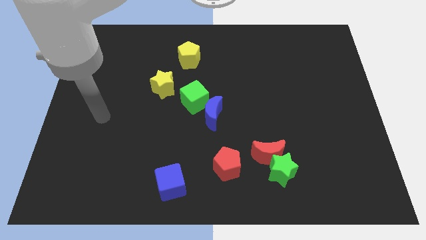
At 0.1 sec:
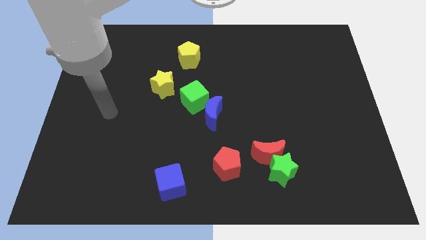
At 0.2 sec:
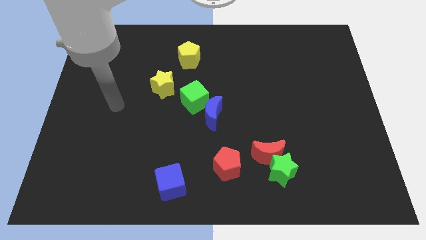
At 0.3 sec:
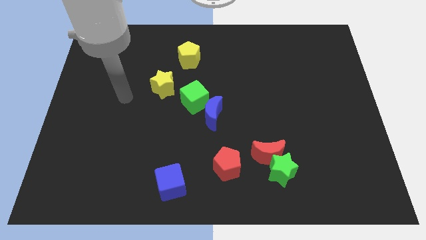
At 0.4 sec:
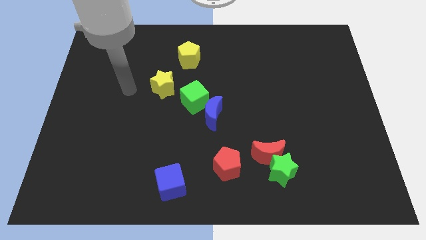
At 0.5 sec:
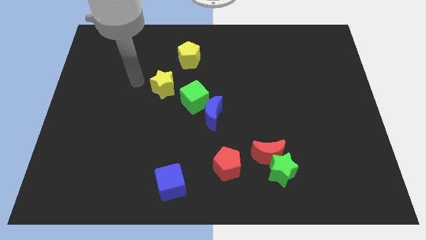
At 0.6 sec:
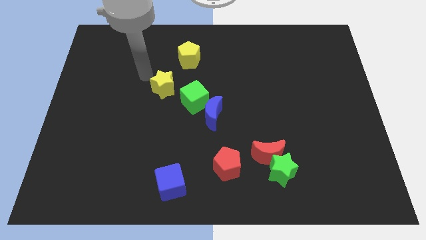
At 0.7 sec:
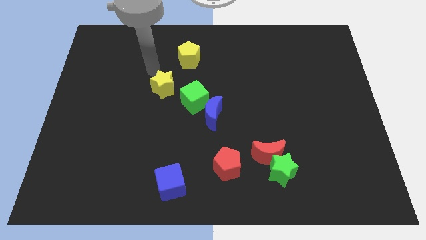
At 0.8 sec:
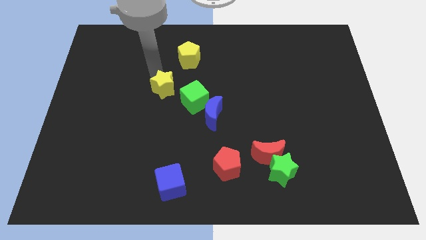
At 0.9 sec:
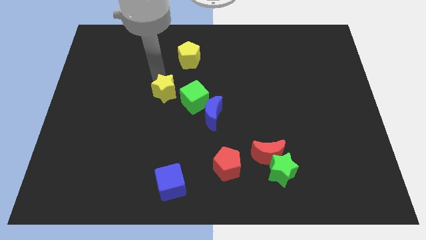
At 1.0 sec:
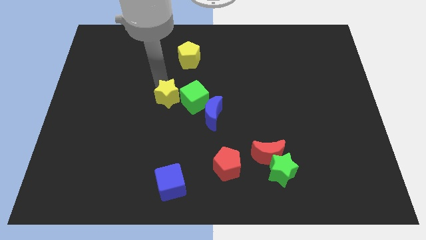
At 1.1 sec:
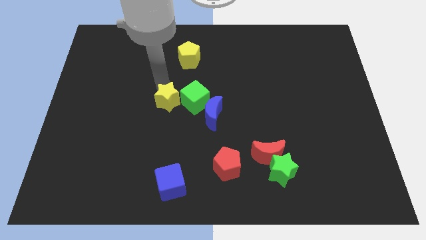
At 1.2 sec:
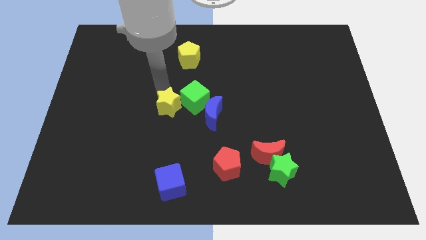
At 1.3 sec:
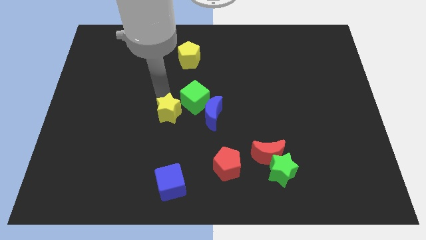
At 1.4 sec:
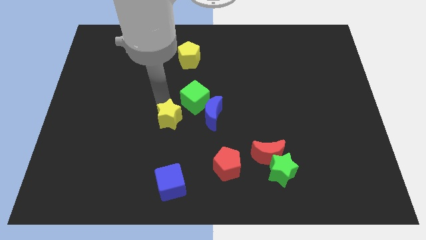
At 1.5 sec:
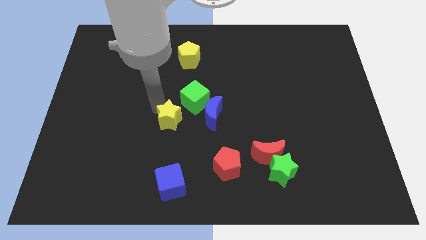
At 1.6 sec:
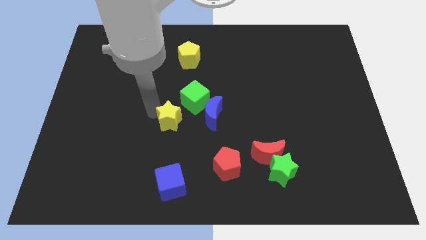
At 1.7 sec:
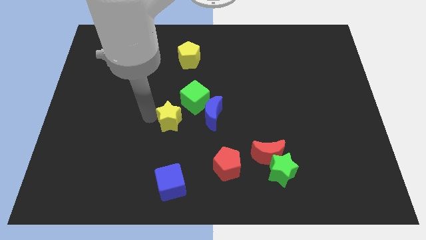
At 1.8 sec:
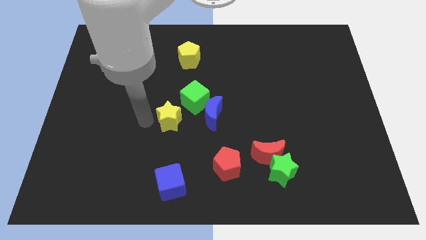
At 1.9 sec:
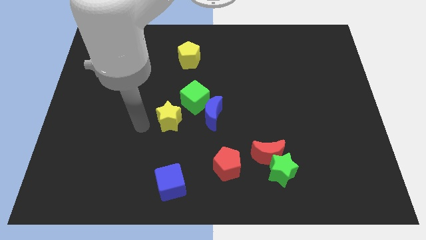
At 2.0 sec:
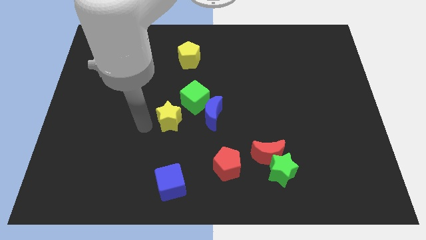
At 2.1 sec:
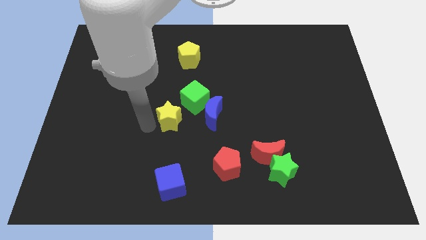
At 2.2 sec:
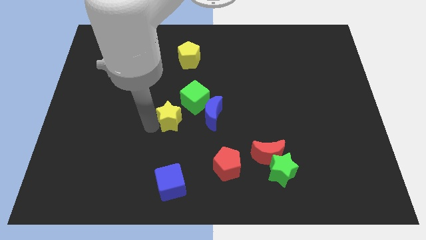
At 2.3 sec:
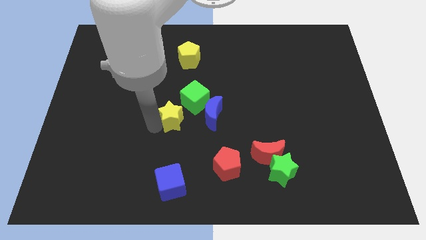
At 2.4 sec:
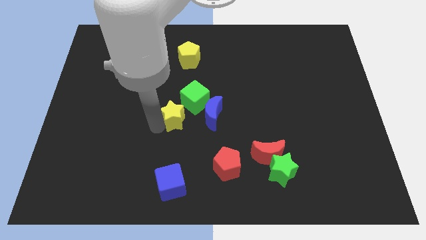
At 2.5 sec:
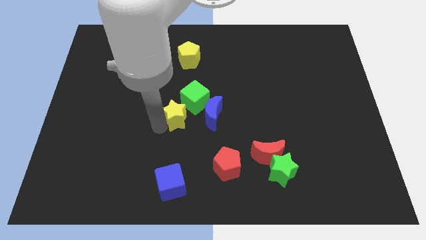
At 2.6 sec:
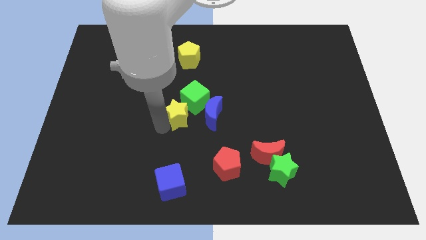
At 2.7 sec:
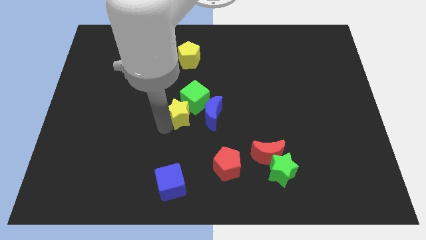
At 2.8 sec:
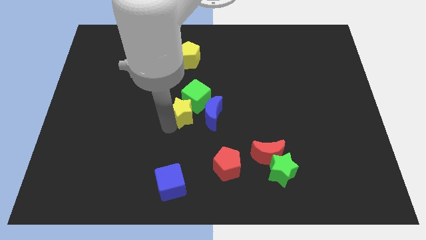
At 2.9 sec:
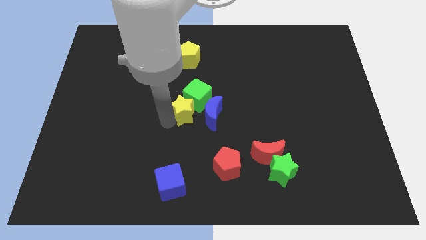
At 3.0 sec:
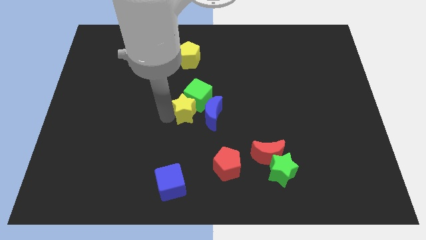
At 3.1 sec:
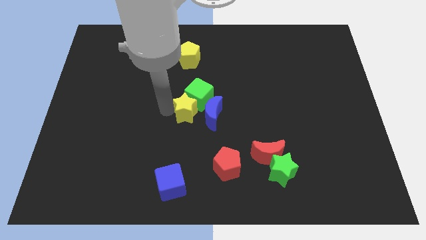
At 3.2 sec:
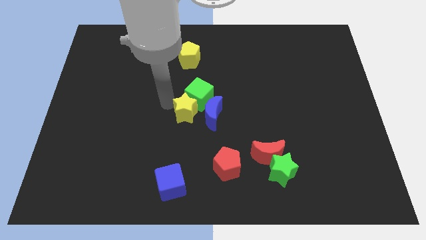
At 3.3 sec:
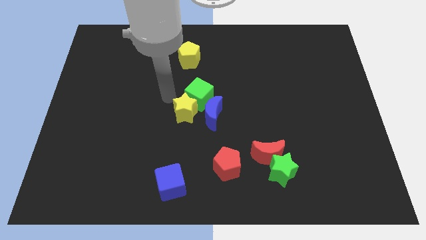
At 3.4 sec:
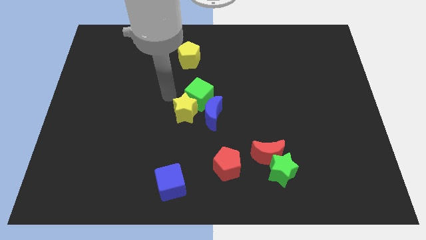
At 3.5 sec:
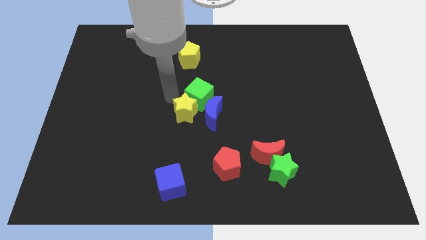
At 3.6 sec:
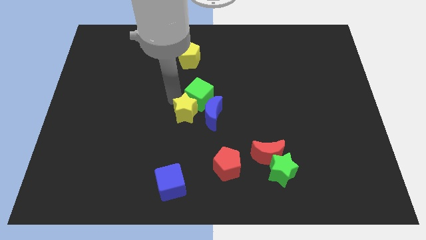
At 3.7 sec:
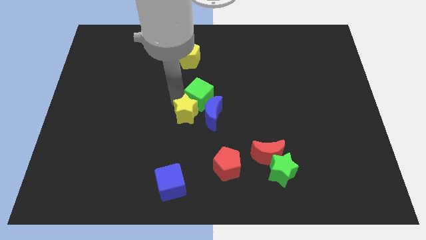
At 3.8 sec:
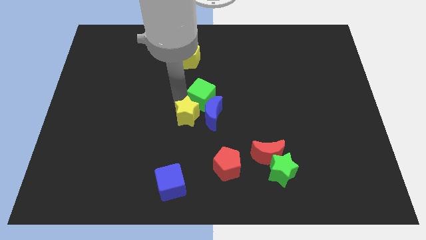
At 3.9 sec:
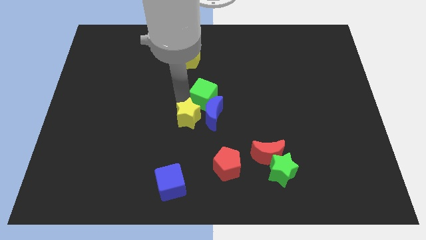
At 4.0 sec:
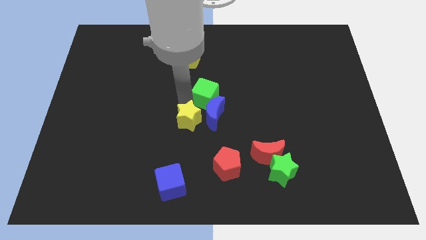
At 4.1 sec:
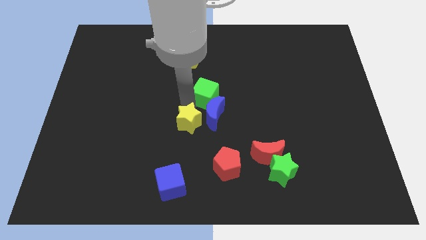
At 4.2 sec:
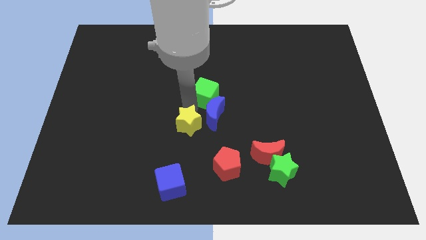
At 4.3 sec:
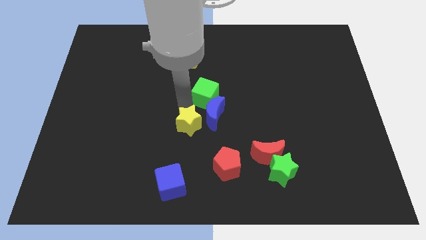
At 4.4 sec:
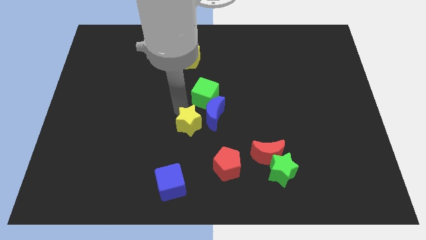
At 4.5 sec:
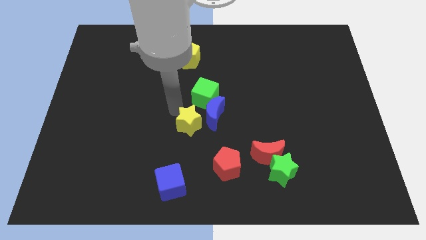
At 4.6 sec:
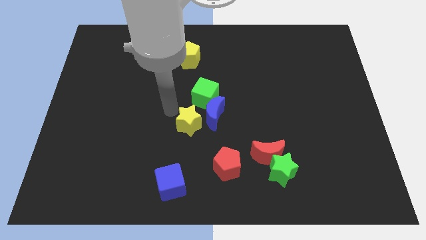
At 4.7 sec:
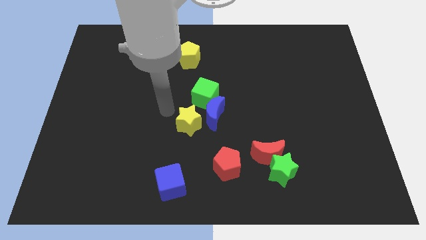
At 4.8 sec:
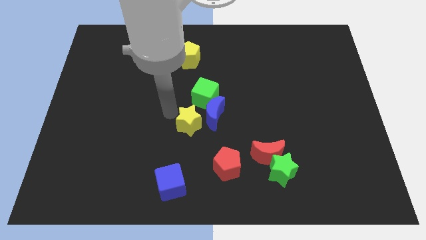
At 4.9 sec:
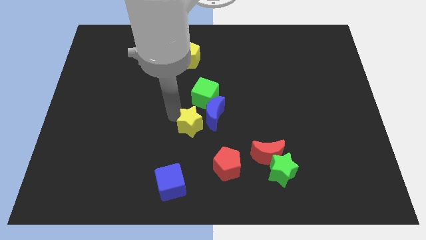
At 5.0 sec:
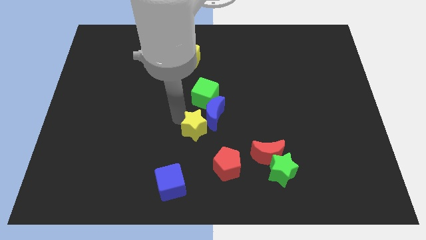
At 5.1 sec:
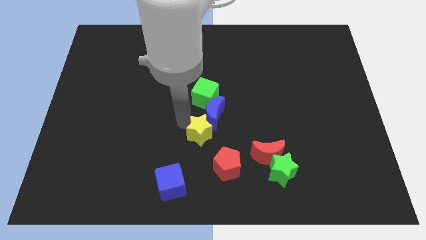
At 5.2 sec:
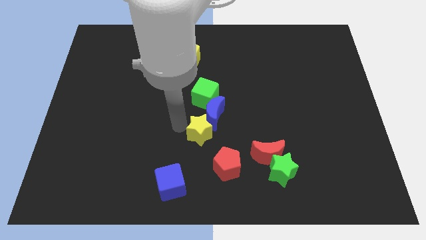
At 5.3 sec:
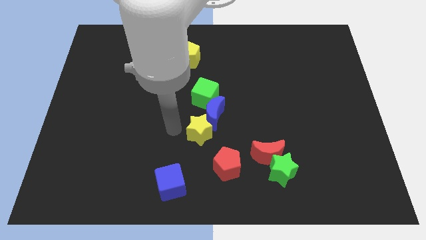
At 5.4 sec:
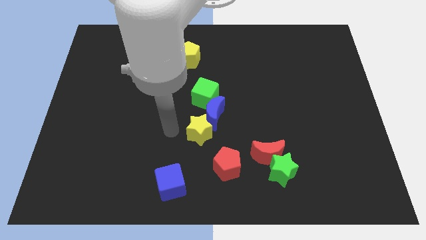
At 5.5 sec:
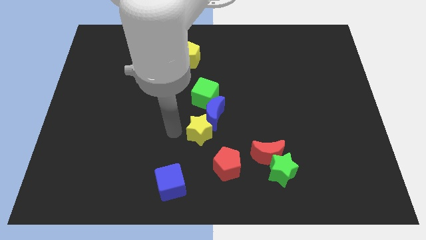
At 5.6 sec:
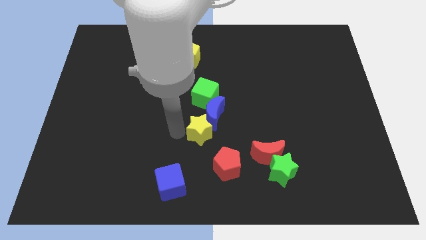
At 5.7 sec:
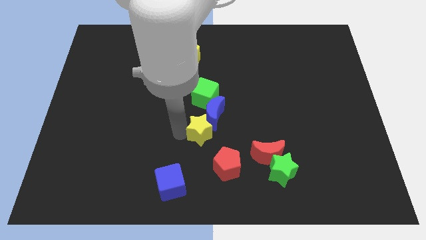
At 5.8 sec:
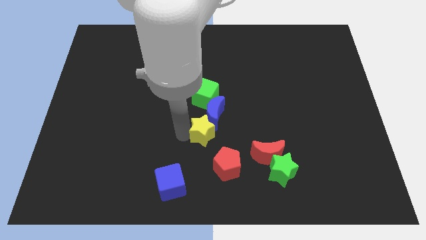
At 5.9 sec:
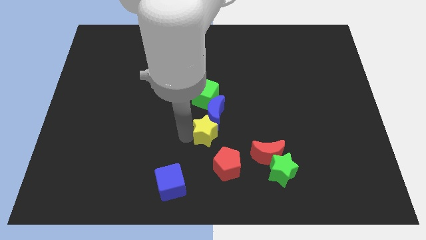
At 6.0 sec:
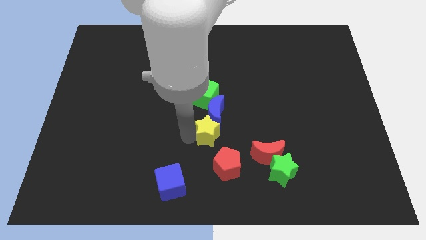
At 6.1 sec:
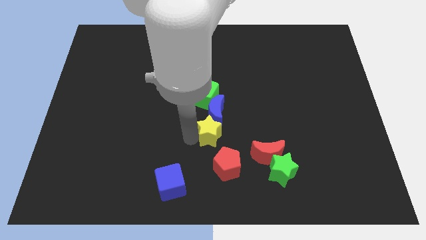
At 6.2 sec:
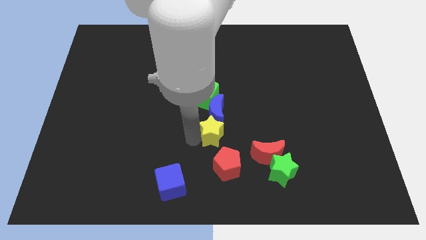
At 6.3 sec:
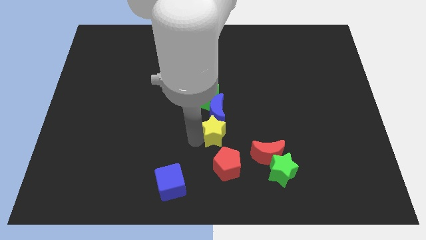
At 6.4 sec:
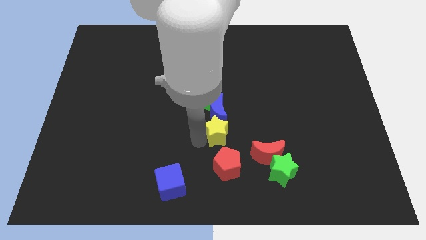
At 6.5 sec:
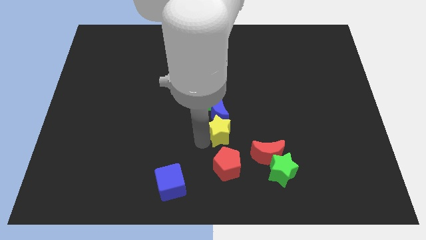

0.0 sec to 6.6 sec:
put the yellow star to the top left side of the red moon
